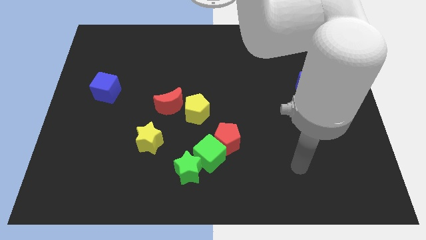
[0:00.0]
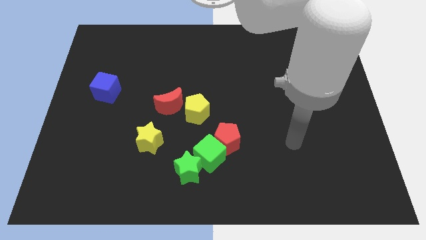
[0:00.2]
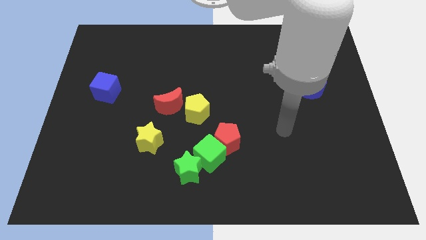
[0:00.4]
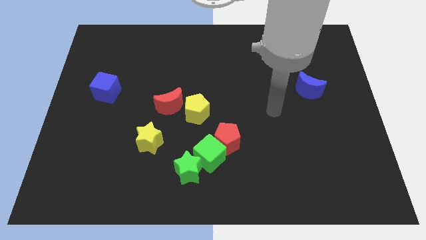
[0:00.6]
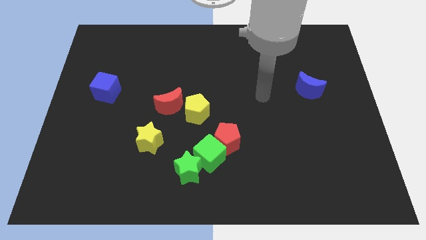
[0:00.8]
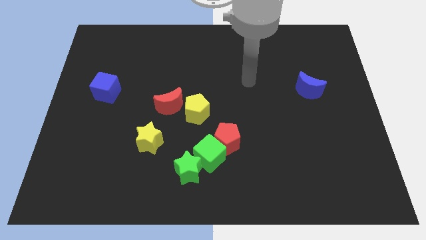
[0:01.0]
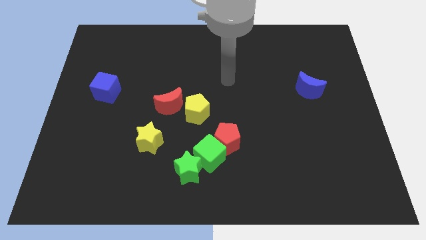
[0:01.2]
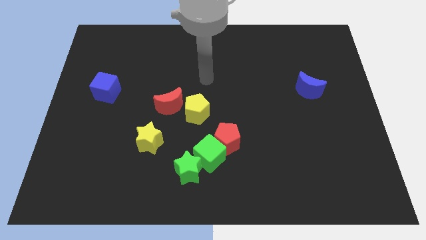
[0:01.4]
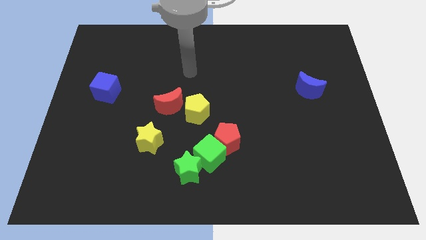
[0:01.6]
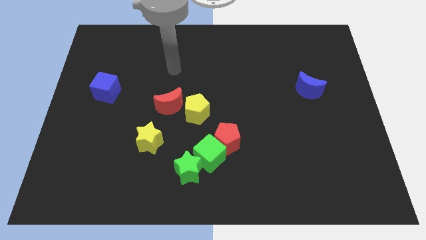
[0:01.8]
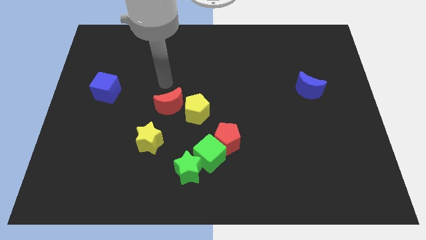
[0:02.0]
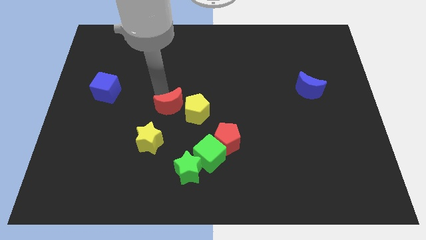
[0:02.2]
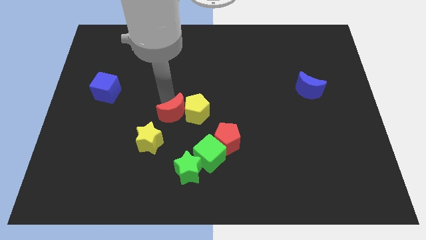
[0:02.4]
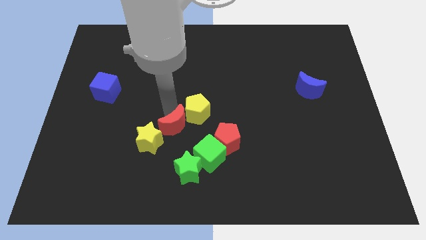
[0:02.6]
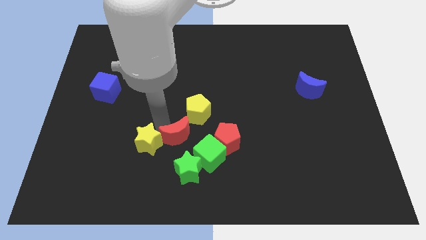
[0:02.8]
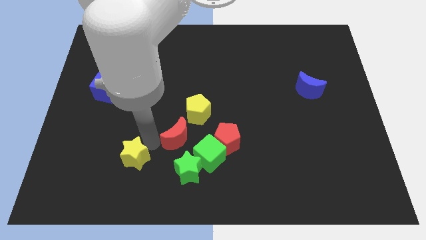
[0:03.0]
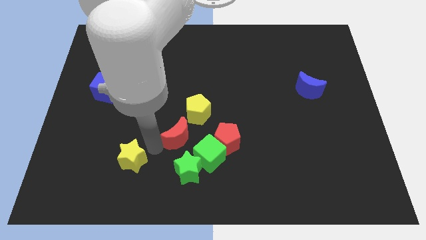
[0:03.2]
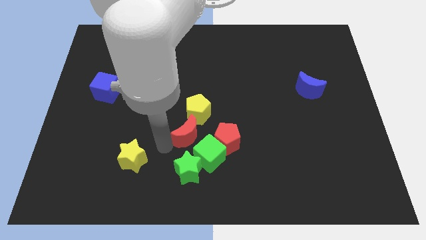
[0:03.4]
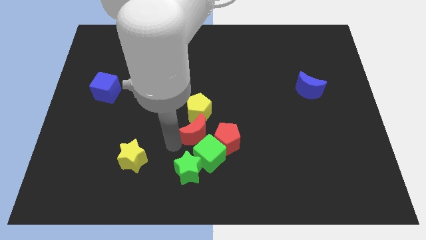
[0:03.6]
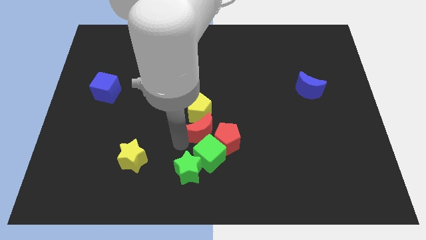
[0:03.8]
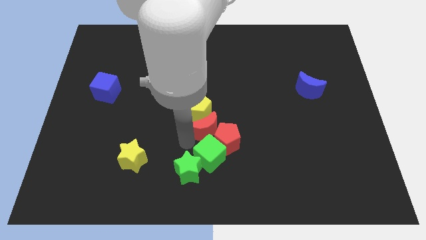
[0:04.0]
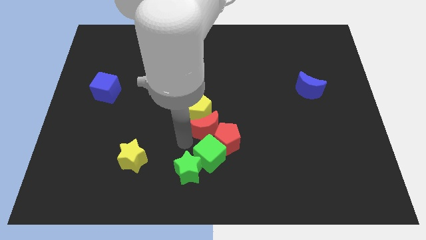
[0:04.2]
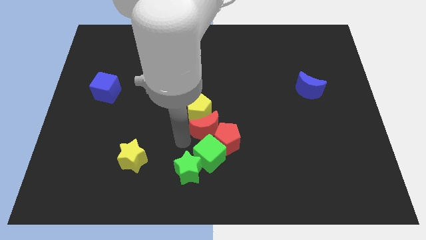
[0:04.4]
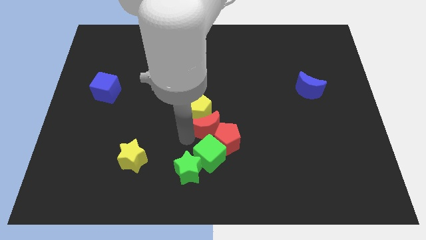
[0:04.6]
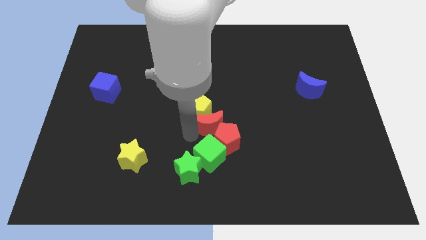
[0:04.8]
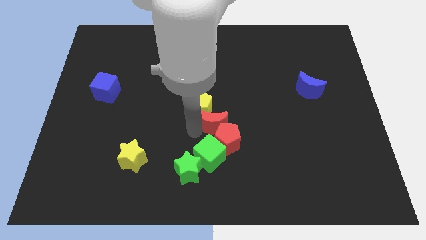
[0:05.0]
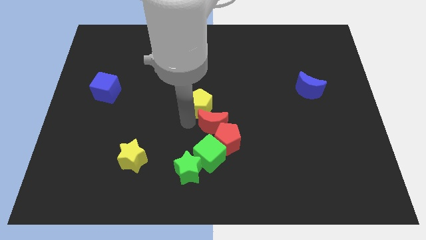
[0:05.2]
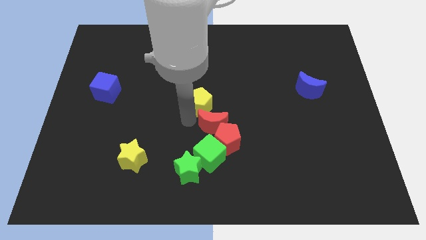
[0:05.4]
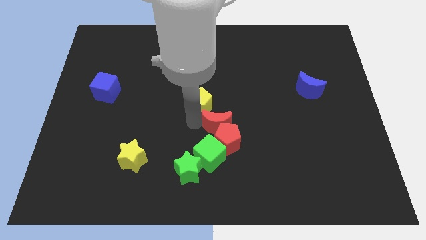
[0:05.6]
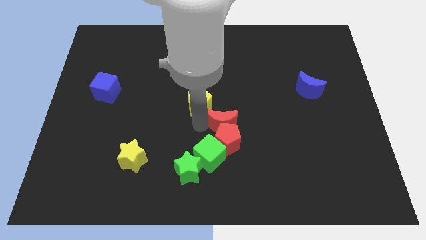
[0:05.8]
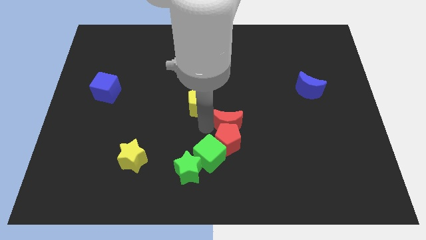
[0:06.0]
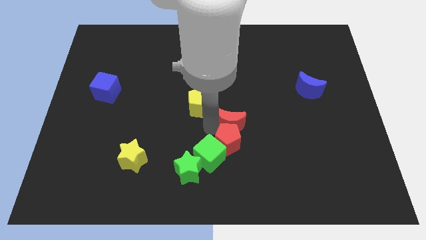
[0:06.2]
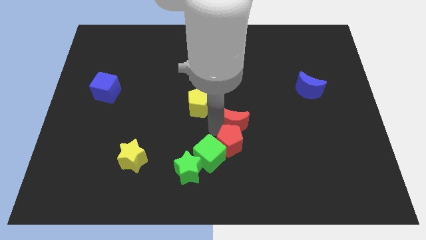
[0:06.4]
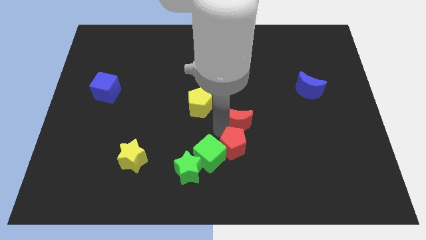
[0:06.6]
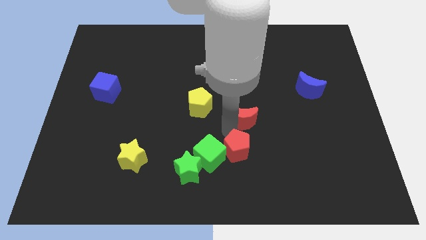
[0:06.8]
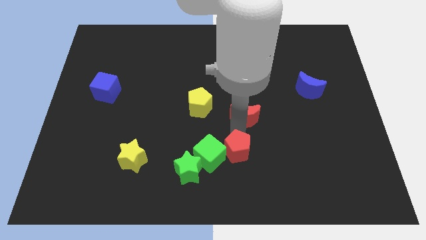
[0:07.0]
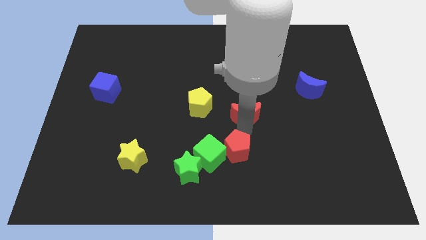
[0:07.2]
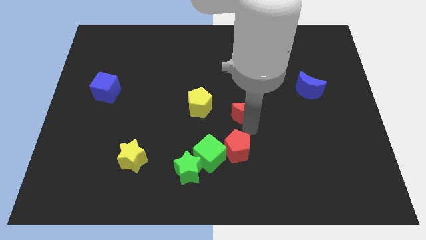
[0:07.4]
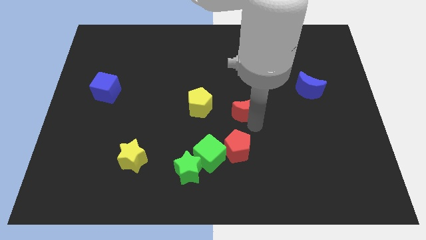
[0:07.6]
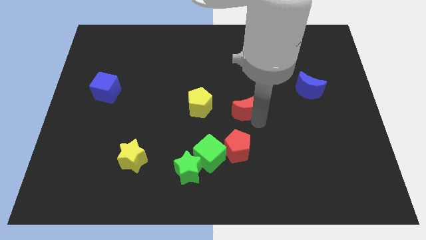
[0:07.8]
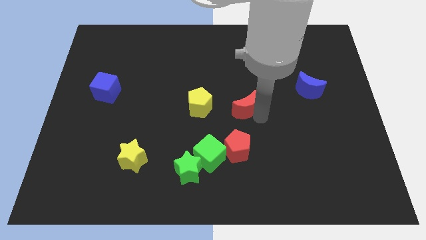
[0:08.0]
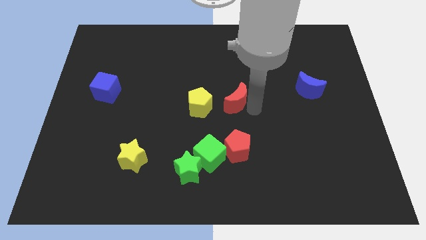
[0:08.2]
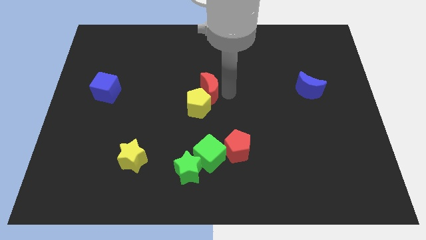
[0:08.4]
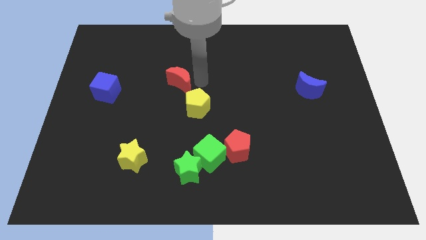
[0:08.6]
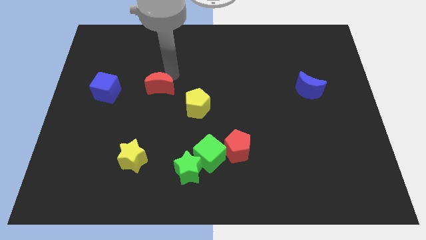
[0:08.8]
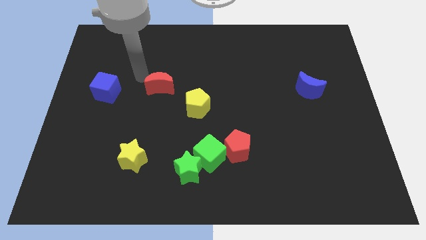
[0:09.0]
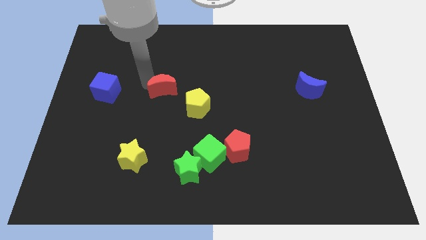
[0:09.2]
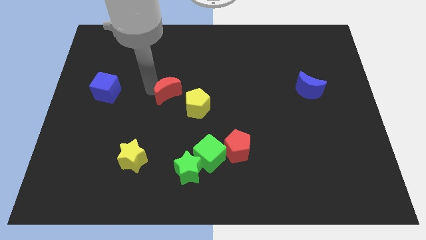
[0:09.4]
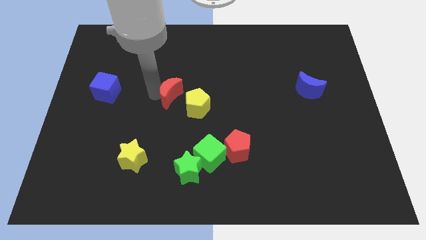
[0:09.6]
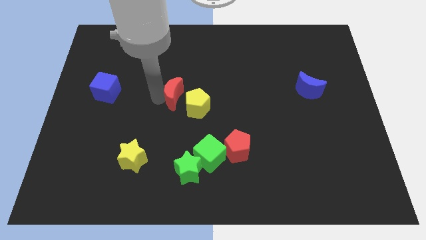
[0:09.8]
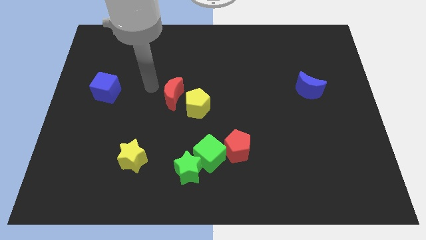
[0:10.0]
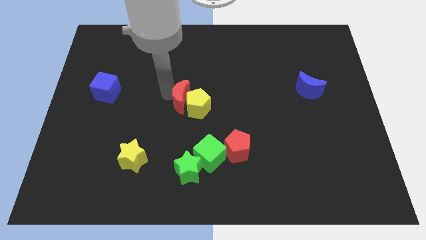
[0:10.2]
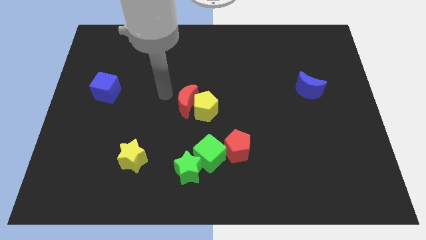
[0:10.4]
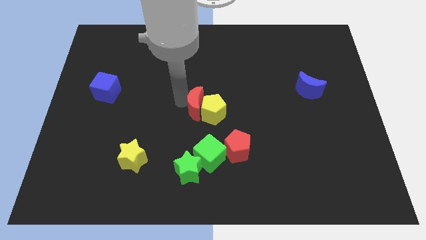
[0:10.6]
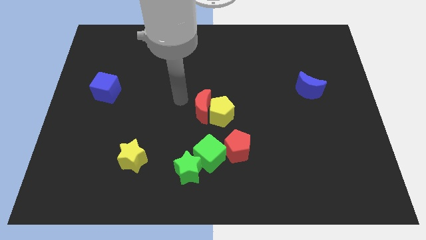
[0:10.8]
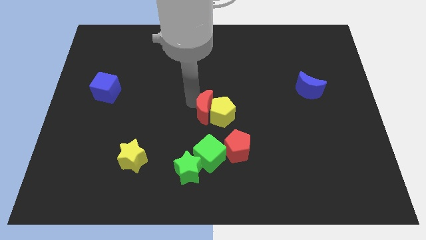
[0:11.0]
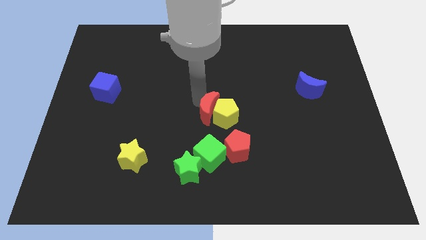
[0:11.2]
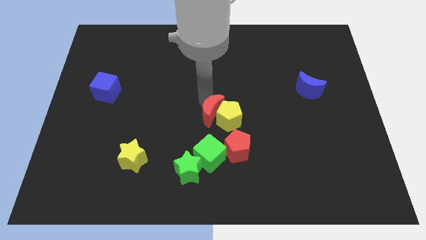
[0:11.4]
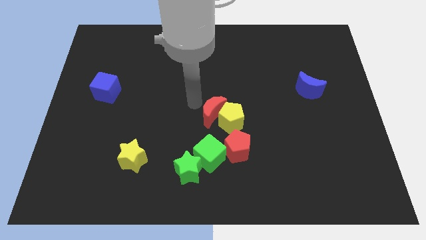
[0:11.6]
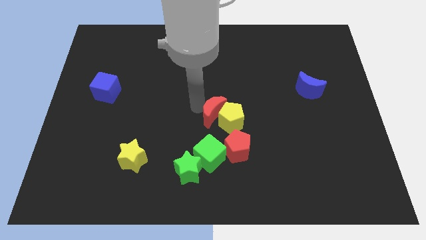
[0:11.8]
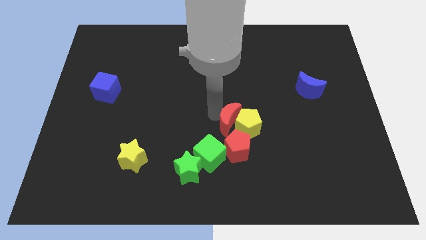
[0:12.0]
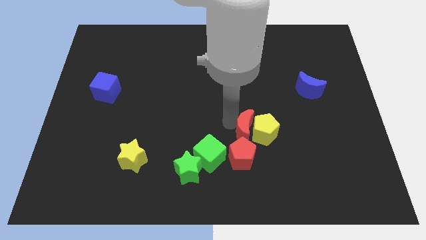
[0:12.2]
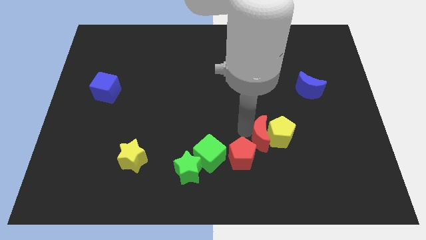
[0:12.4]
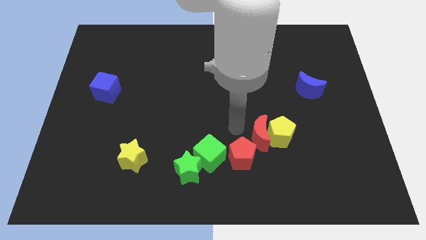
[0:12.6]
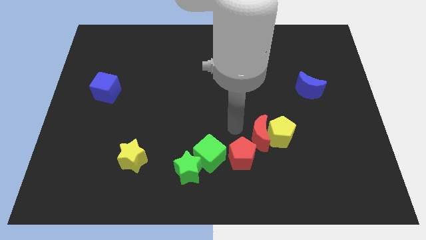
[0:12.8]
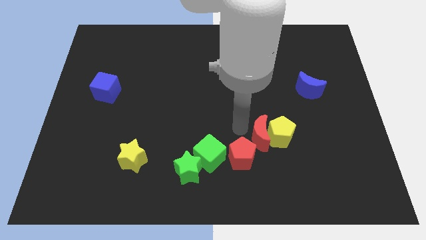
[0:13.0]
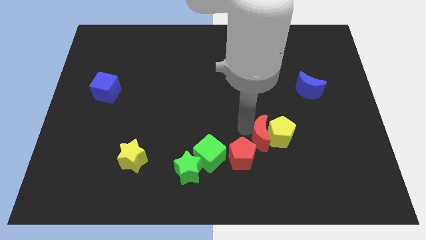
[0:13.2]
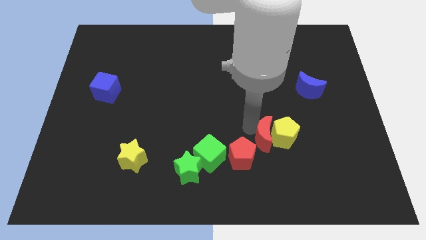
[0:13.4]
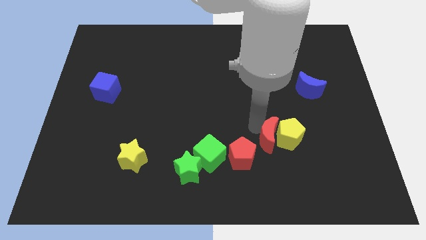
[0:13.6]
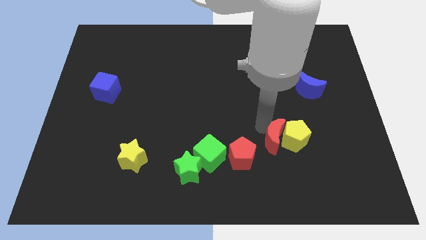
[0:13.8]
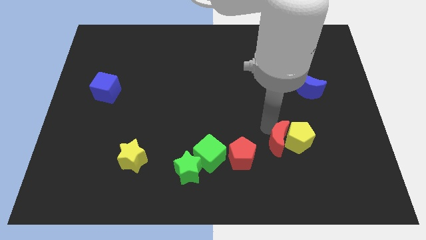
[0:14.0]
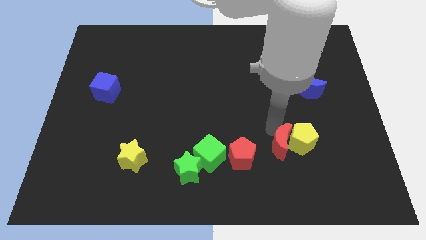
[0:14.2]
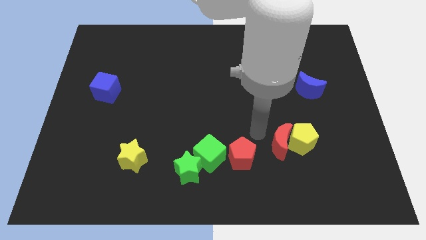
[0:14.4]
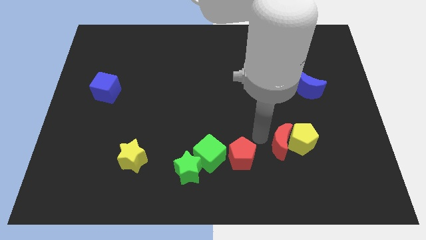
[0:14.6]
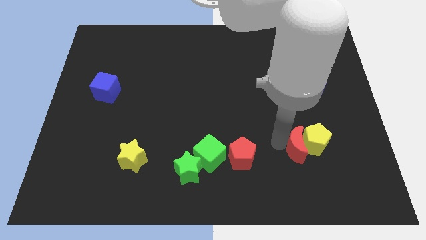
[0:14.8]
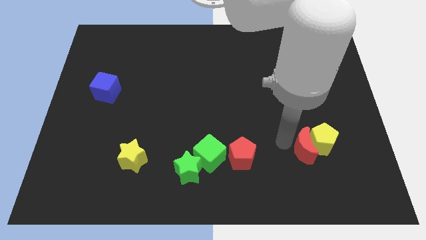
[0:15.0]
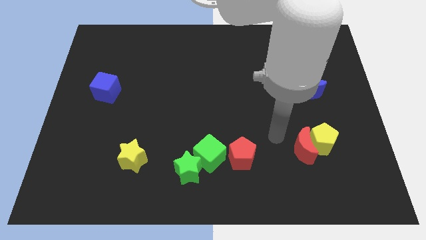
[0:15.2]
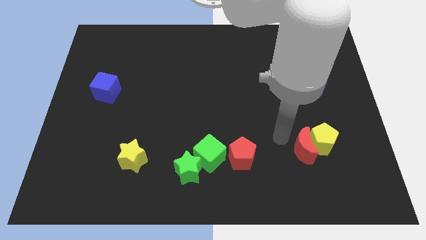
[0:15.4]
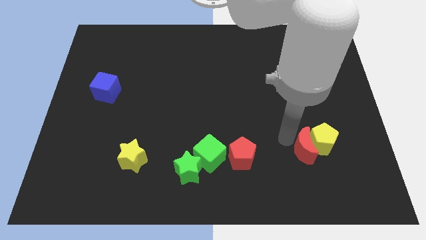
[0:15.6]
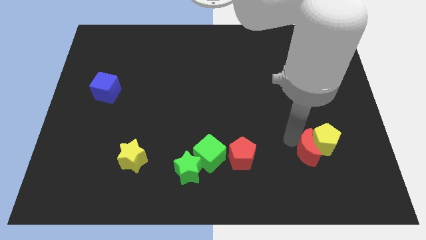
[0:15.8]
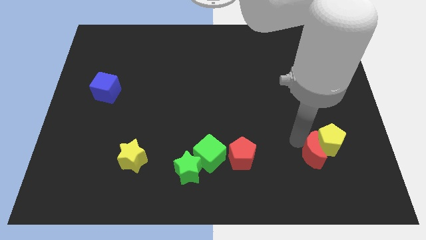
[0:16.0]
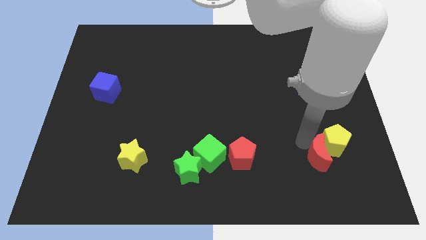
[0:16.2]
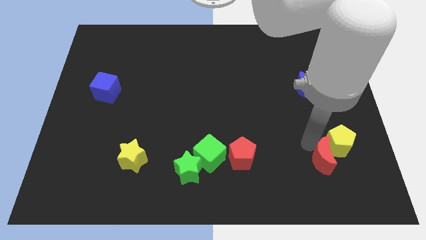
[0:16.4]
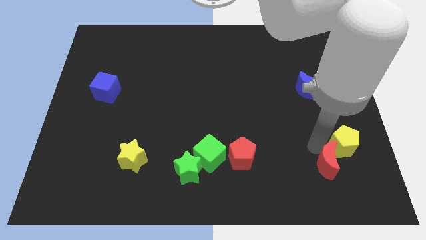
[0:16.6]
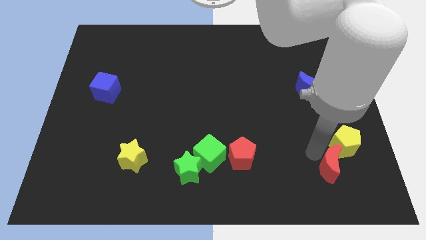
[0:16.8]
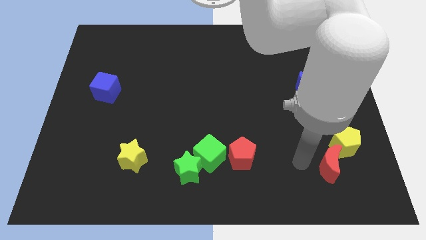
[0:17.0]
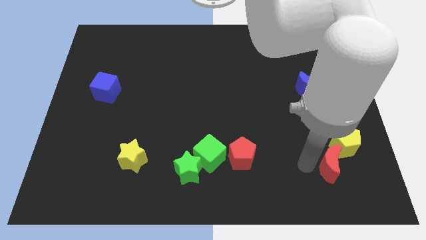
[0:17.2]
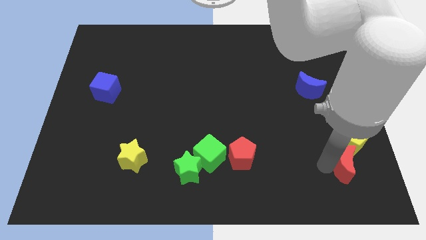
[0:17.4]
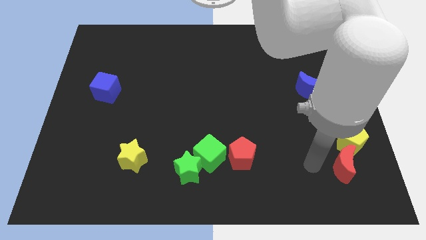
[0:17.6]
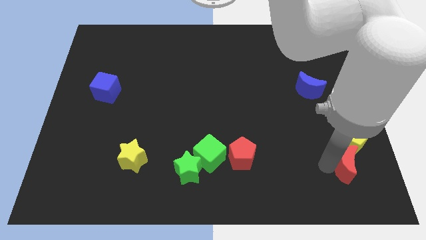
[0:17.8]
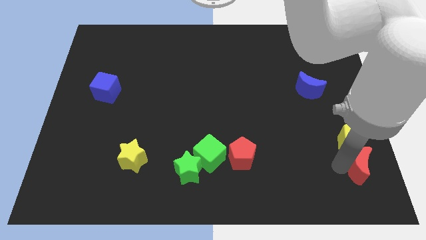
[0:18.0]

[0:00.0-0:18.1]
put the red moon to the bottom right corner
